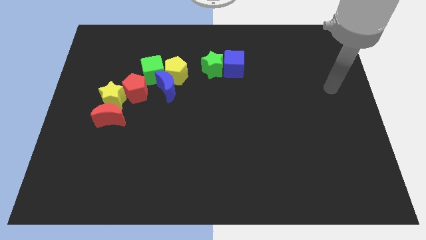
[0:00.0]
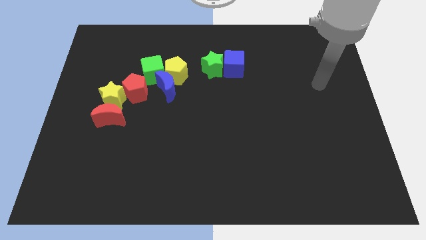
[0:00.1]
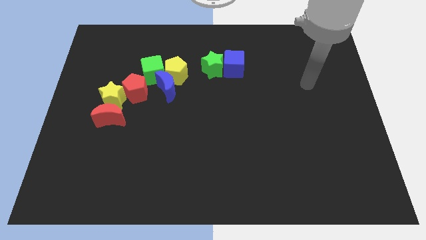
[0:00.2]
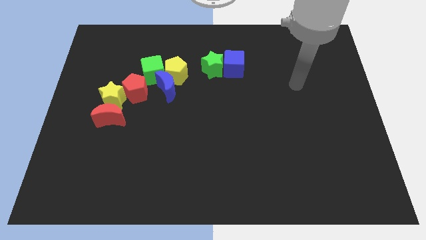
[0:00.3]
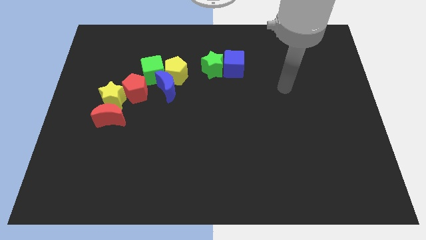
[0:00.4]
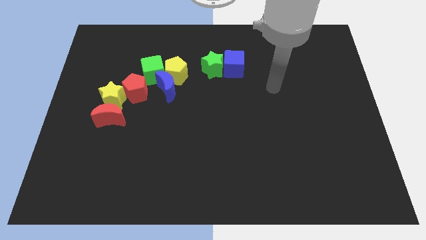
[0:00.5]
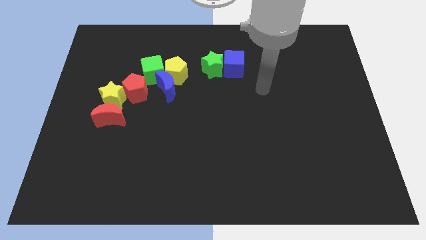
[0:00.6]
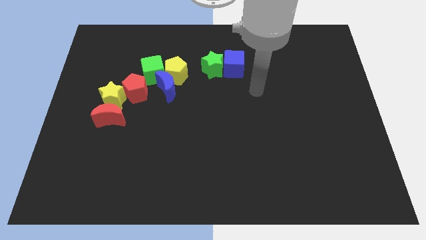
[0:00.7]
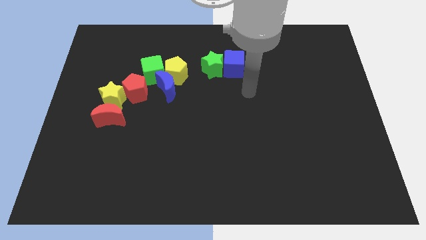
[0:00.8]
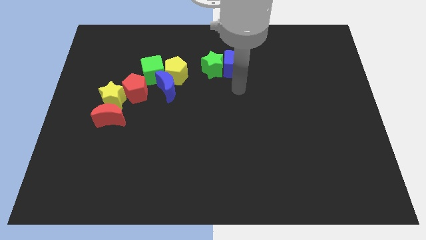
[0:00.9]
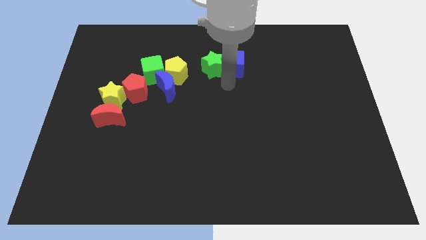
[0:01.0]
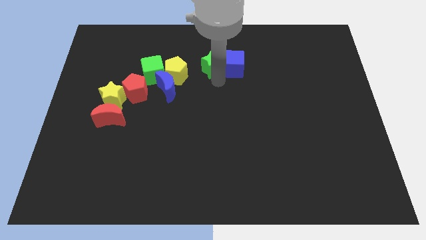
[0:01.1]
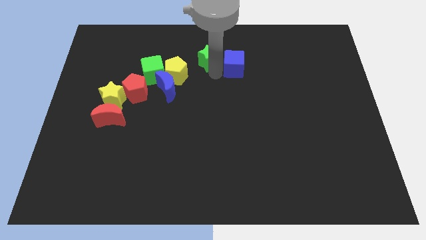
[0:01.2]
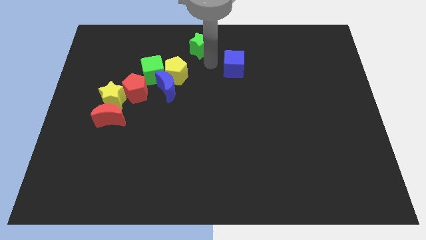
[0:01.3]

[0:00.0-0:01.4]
separate the blue cube from the green star

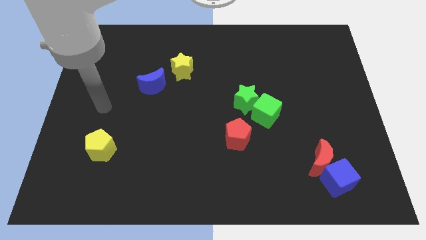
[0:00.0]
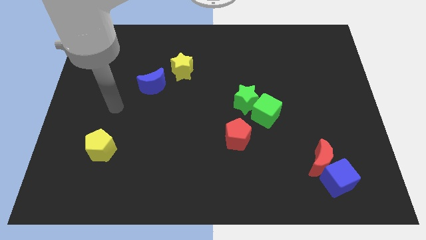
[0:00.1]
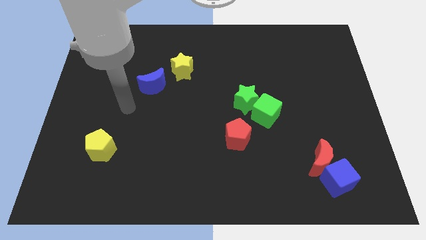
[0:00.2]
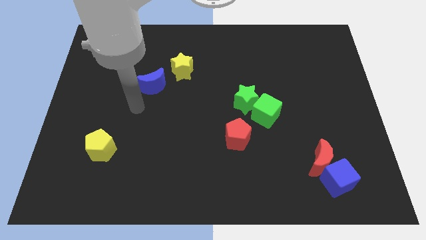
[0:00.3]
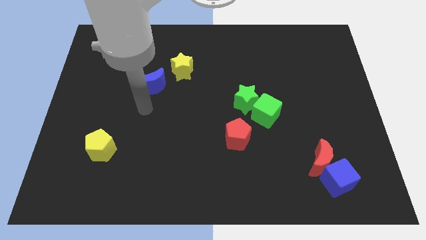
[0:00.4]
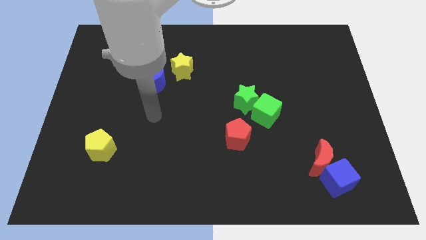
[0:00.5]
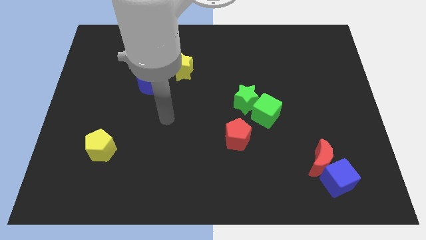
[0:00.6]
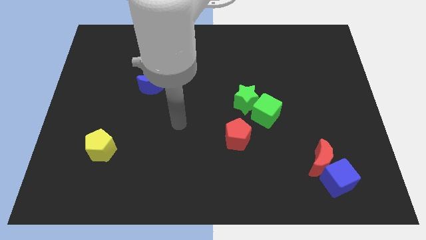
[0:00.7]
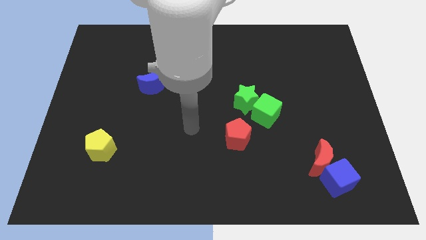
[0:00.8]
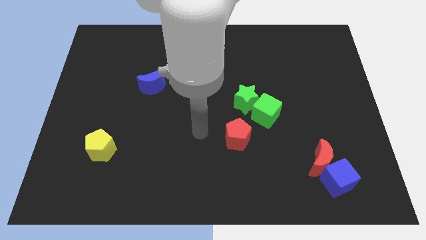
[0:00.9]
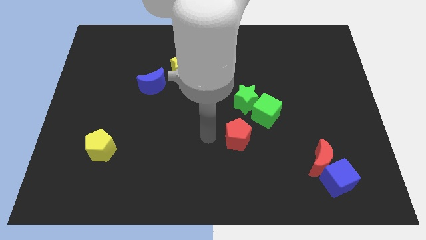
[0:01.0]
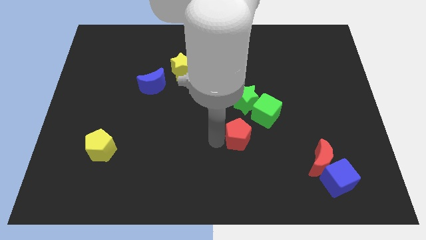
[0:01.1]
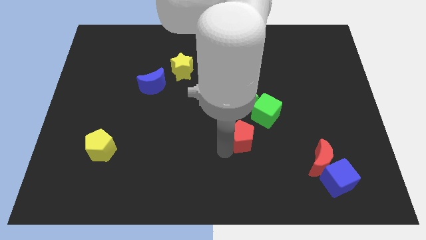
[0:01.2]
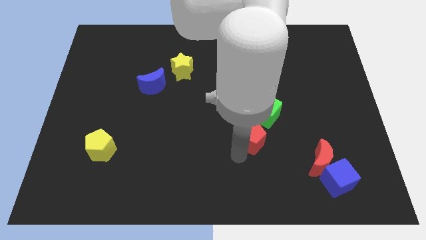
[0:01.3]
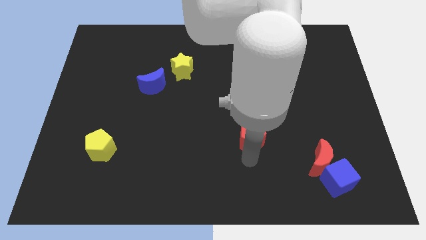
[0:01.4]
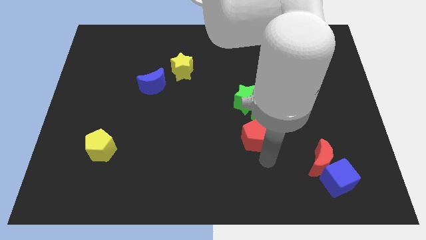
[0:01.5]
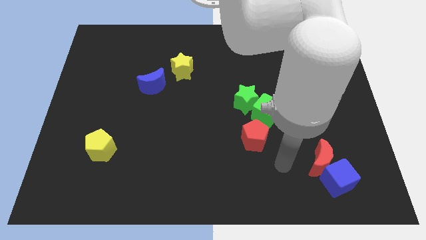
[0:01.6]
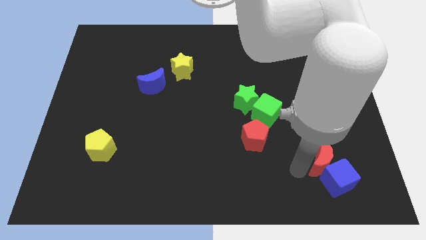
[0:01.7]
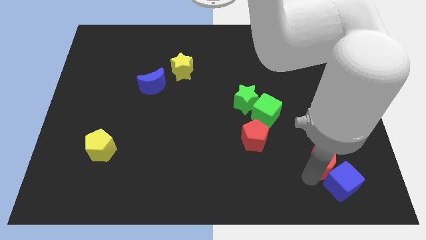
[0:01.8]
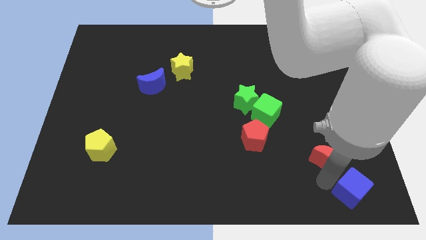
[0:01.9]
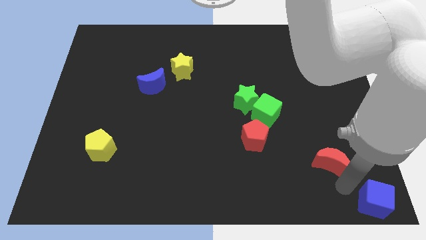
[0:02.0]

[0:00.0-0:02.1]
separate the red moon from the blue cube

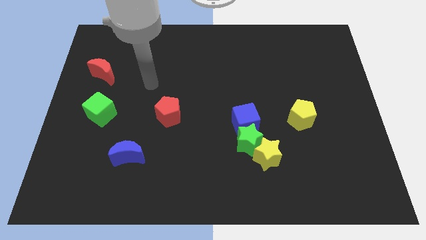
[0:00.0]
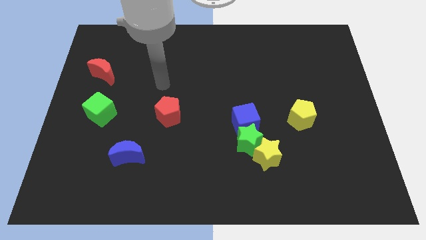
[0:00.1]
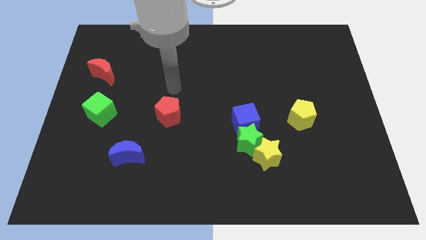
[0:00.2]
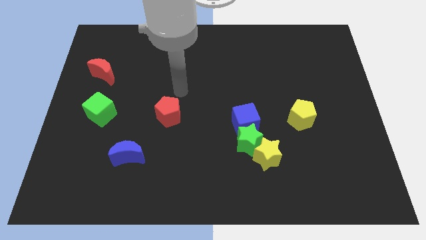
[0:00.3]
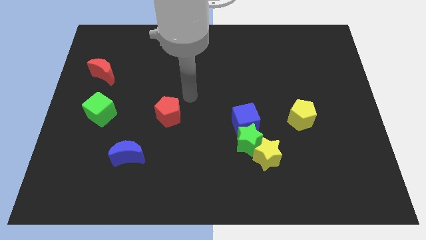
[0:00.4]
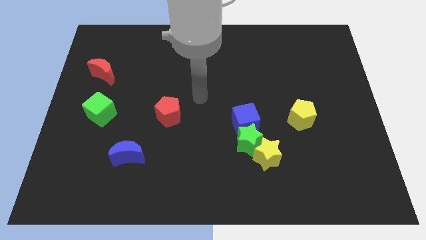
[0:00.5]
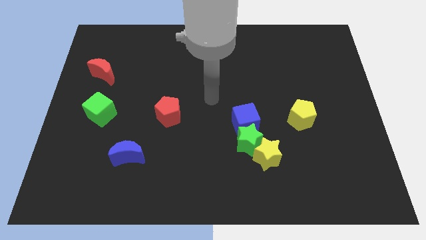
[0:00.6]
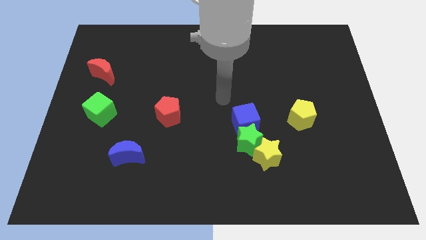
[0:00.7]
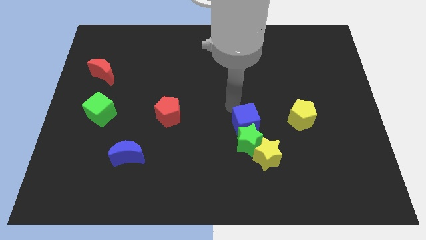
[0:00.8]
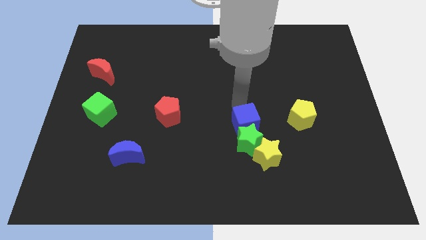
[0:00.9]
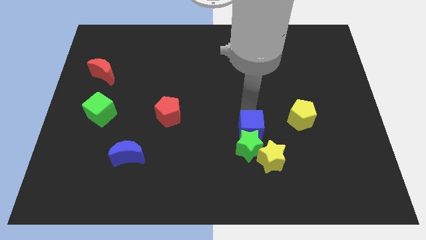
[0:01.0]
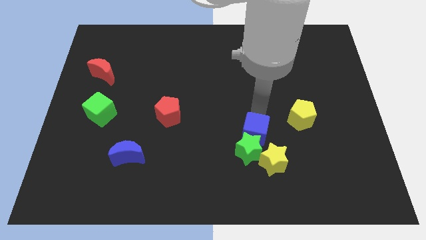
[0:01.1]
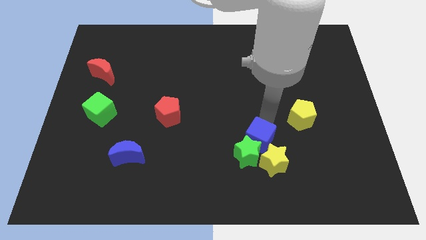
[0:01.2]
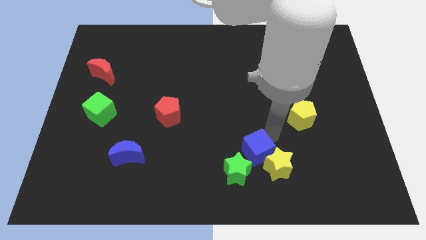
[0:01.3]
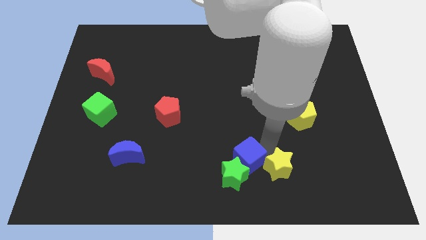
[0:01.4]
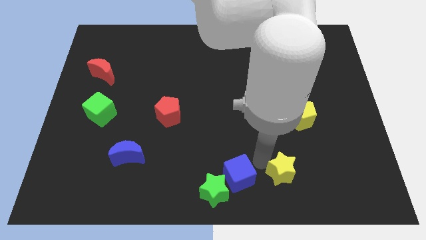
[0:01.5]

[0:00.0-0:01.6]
move the green star away from the yellow star and blue cube

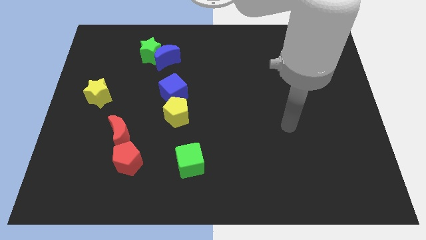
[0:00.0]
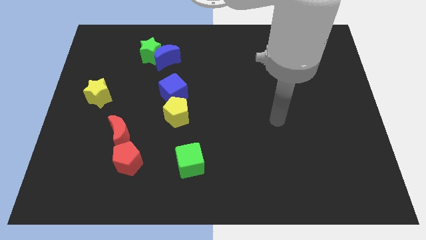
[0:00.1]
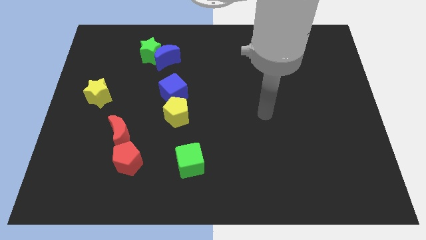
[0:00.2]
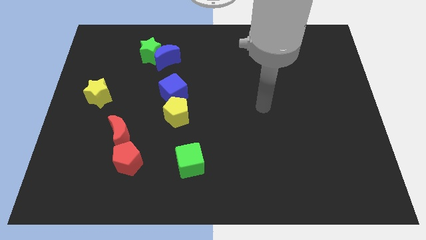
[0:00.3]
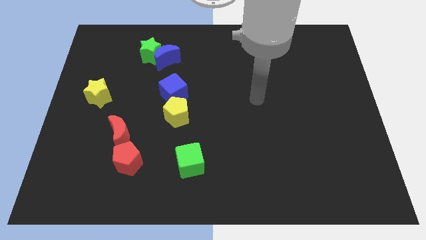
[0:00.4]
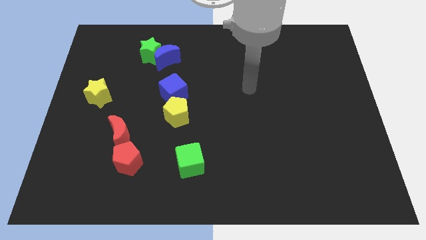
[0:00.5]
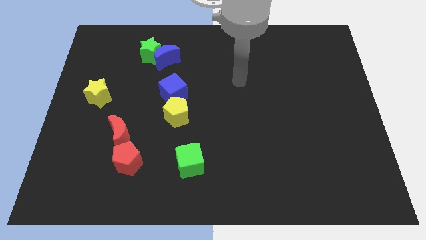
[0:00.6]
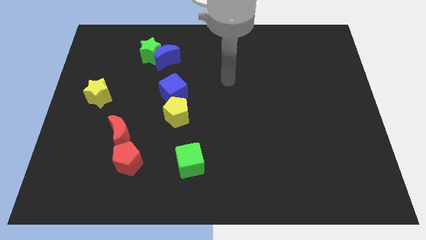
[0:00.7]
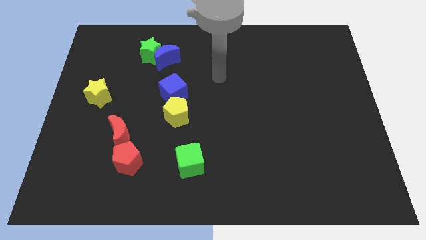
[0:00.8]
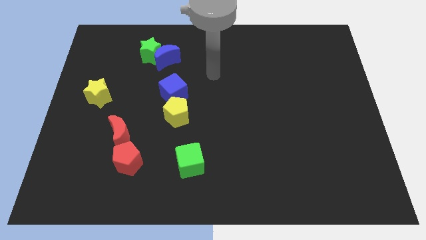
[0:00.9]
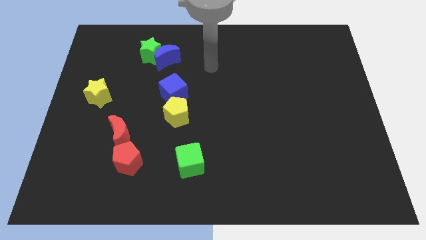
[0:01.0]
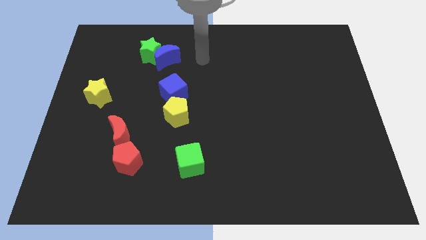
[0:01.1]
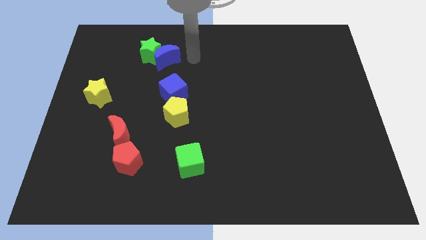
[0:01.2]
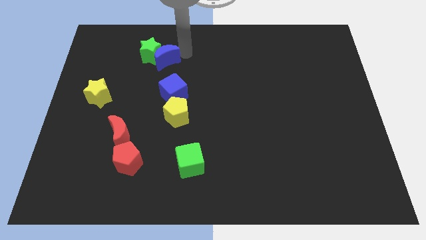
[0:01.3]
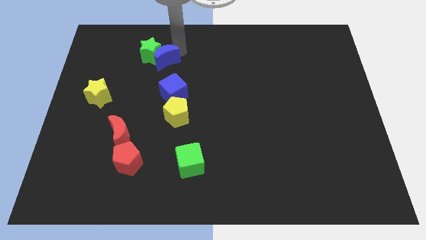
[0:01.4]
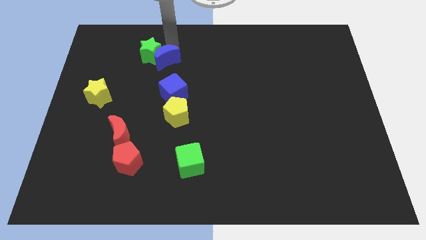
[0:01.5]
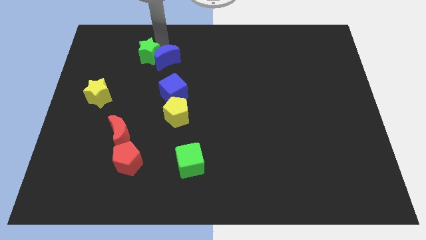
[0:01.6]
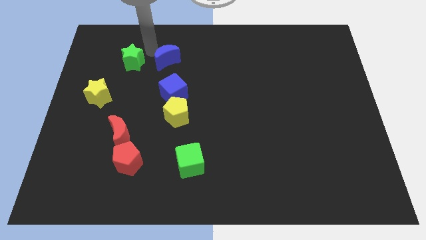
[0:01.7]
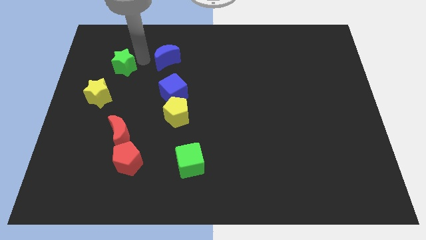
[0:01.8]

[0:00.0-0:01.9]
separate the blue moon from the green star

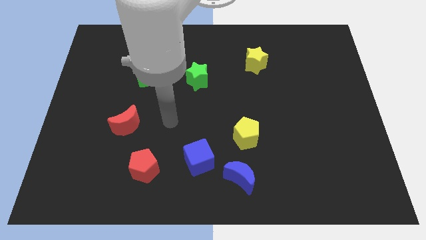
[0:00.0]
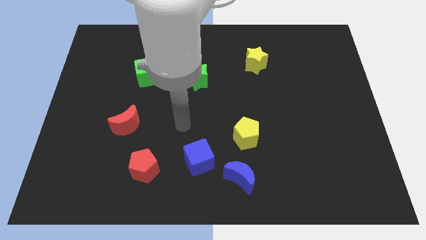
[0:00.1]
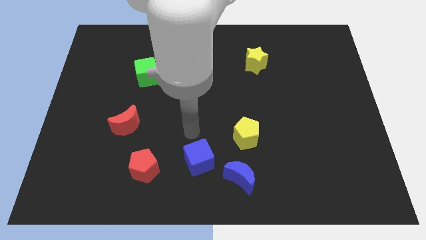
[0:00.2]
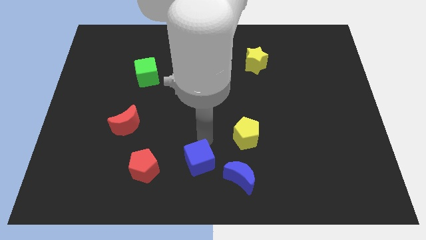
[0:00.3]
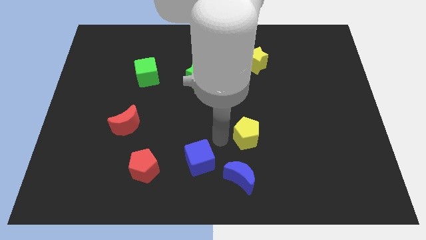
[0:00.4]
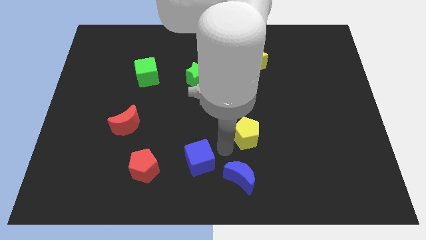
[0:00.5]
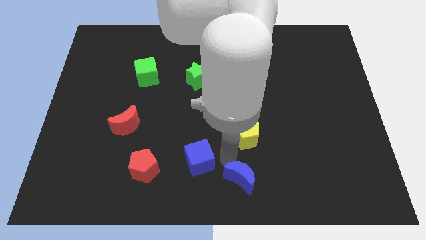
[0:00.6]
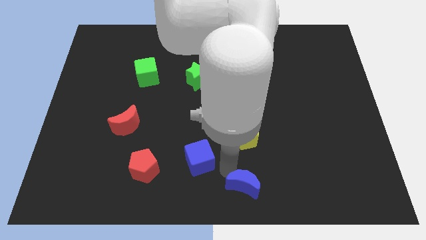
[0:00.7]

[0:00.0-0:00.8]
separate the blue cube from the blue moon

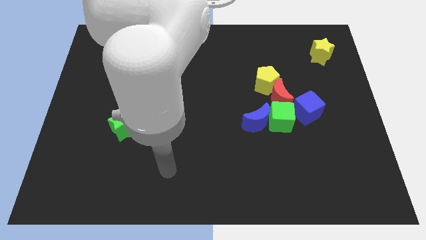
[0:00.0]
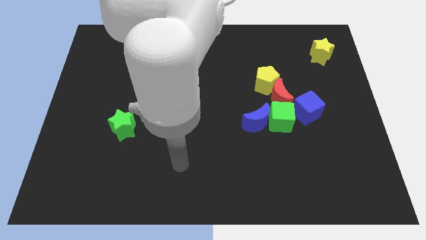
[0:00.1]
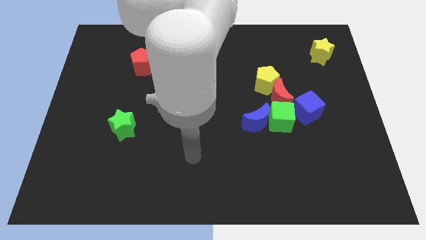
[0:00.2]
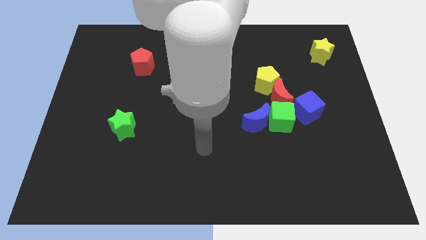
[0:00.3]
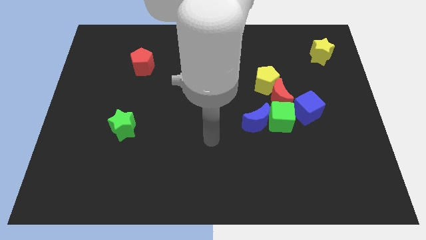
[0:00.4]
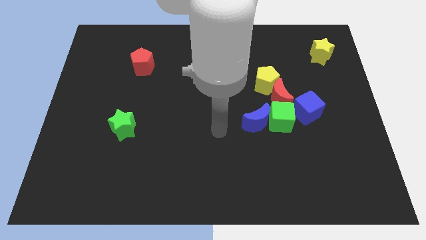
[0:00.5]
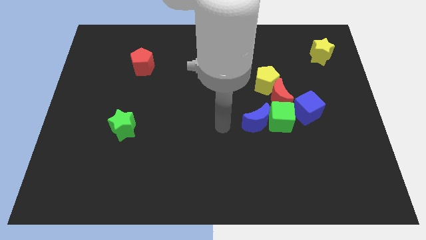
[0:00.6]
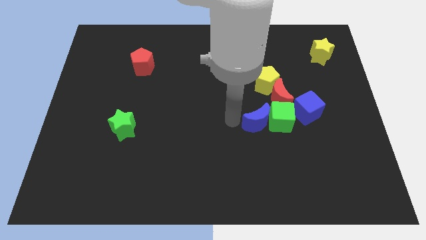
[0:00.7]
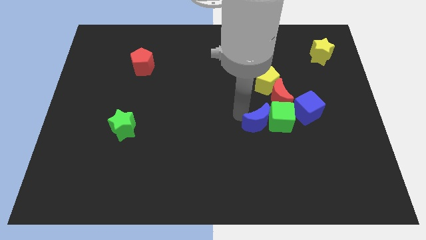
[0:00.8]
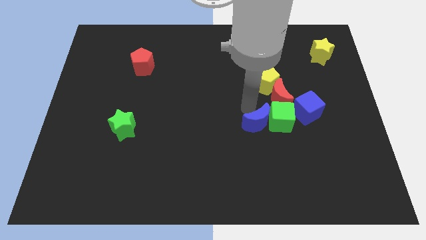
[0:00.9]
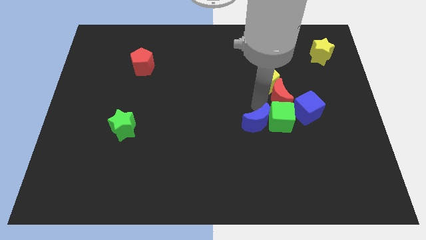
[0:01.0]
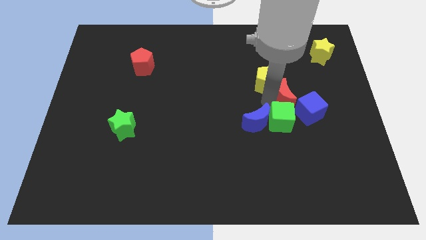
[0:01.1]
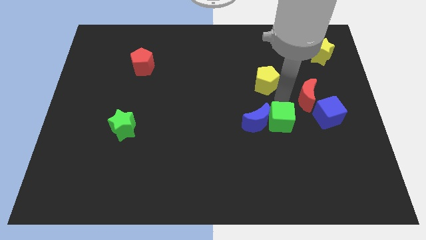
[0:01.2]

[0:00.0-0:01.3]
pull the yellow pentagon apart from the red moon

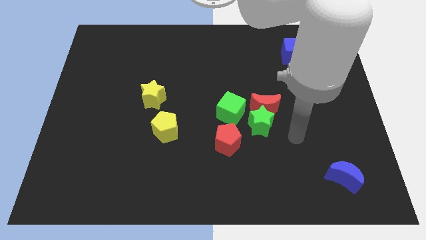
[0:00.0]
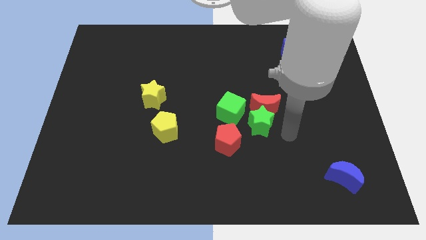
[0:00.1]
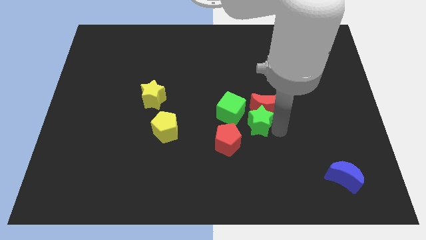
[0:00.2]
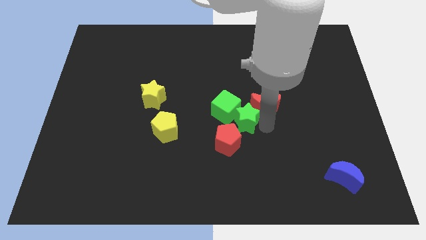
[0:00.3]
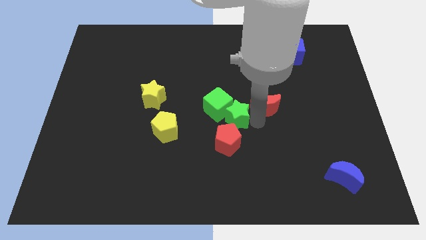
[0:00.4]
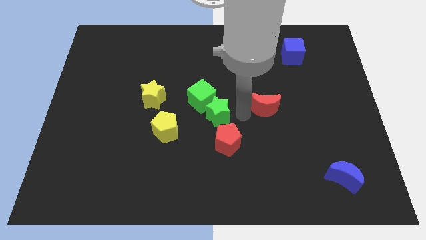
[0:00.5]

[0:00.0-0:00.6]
separate the red moon from the green star and green cube
